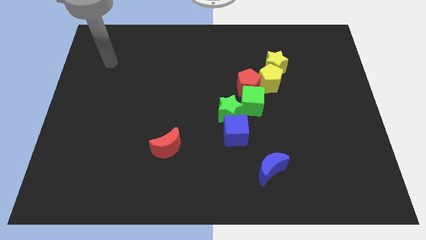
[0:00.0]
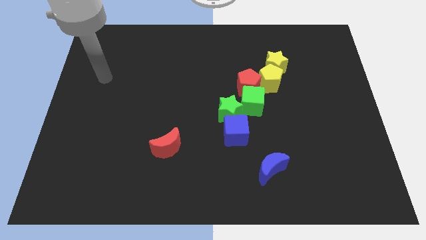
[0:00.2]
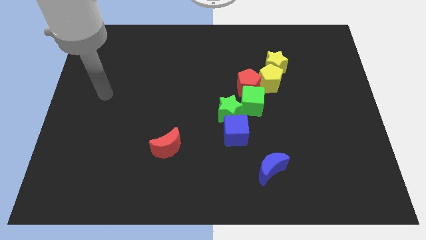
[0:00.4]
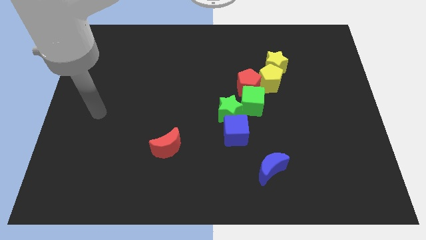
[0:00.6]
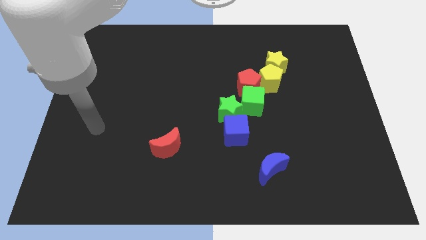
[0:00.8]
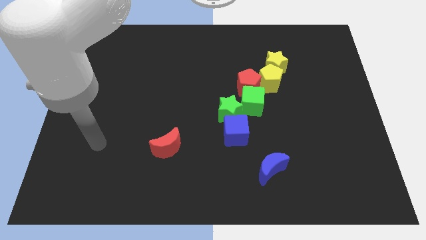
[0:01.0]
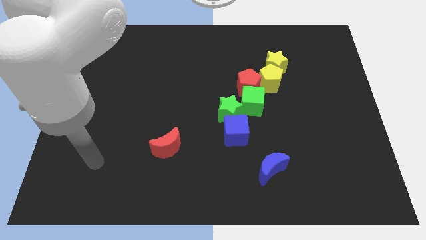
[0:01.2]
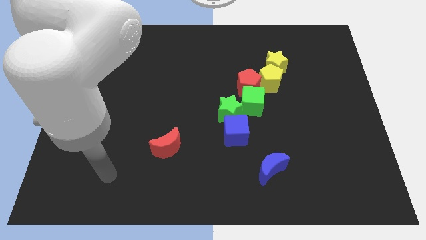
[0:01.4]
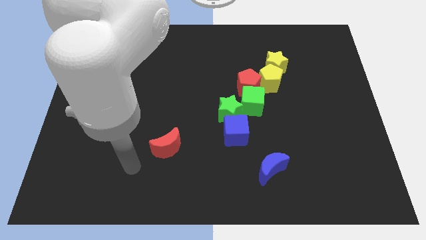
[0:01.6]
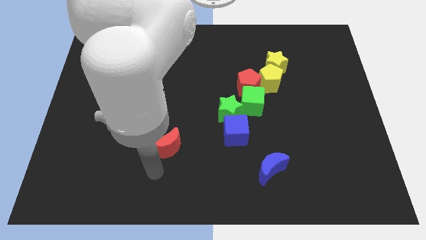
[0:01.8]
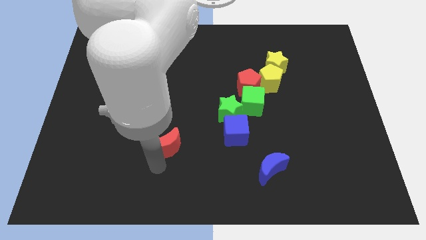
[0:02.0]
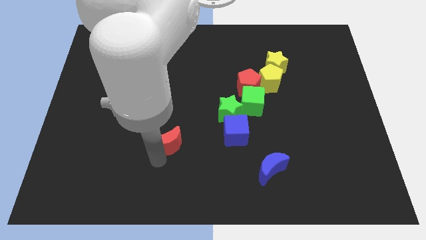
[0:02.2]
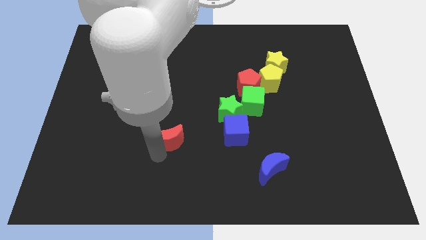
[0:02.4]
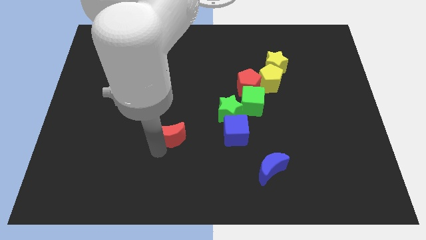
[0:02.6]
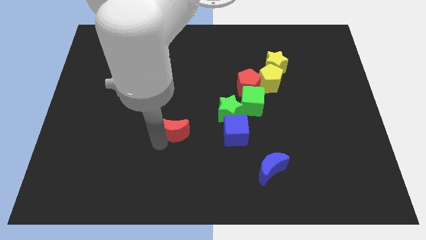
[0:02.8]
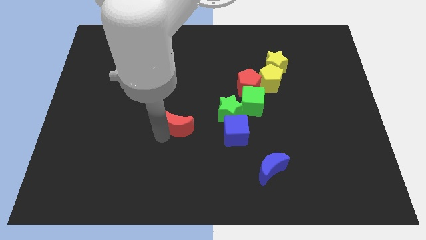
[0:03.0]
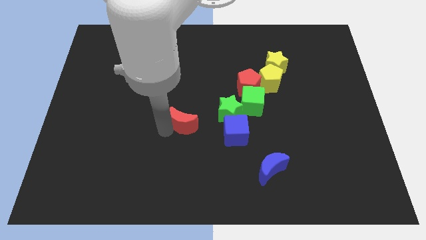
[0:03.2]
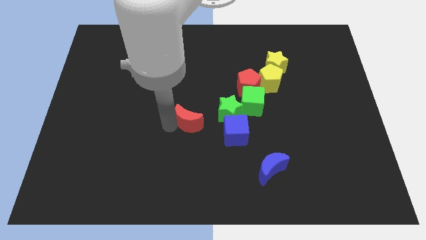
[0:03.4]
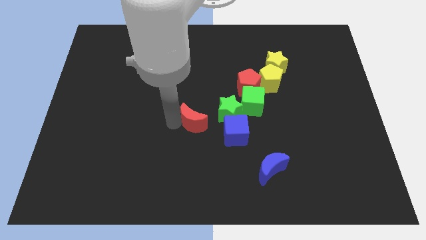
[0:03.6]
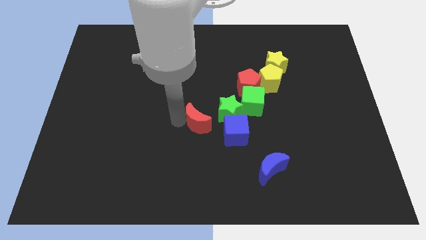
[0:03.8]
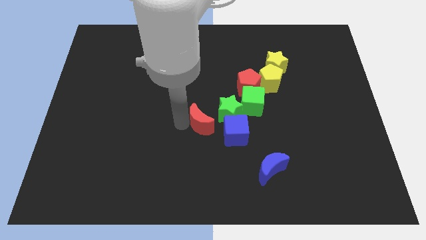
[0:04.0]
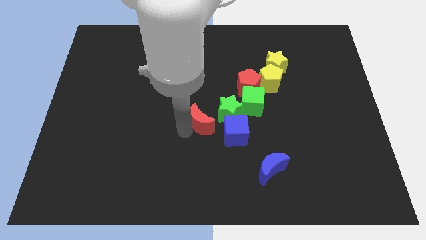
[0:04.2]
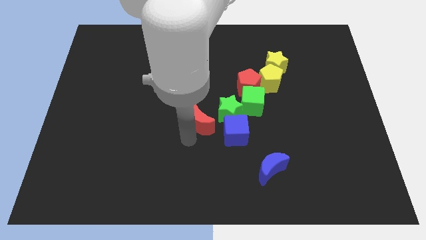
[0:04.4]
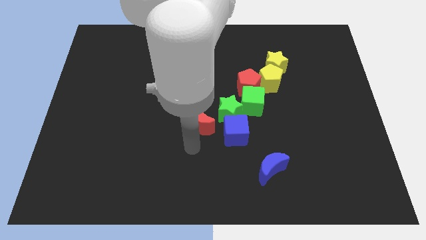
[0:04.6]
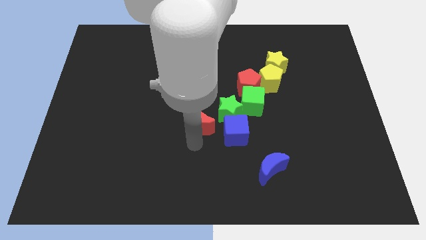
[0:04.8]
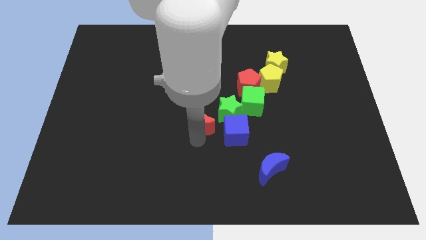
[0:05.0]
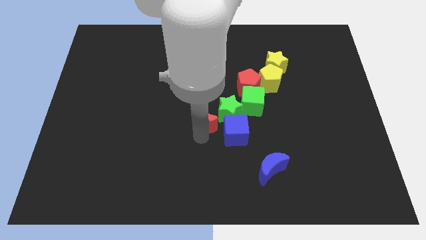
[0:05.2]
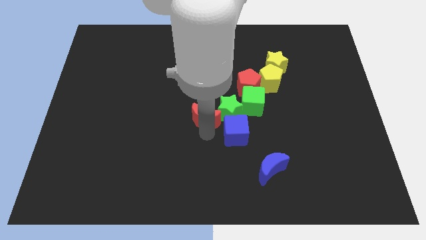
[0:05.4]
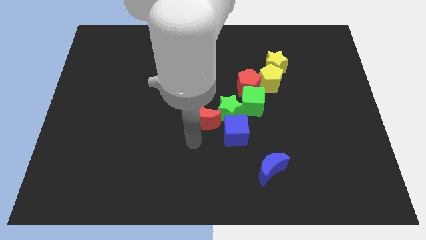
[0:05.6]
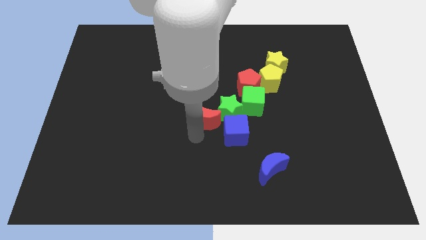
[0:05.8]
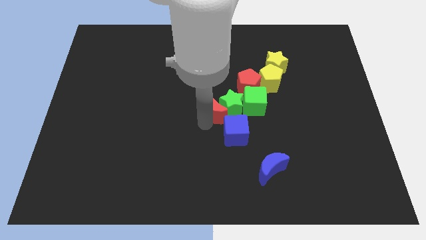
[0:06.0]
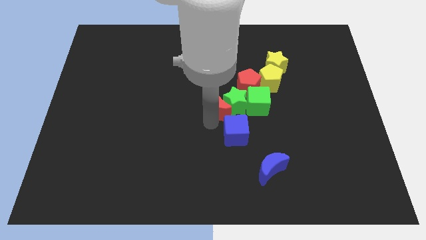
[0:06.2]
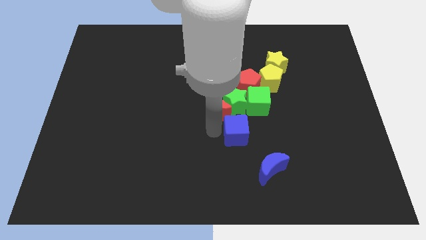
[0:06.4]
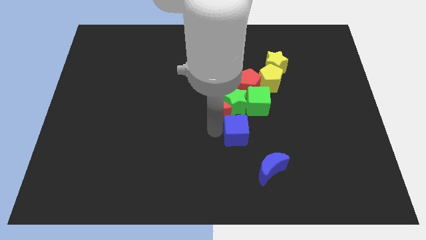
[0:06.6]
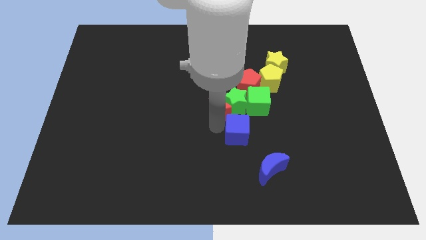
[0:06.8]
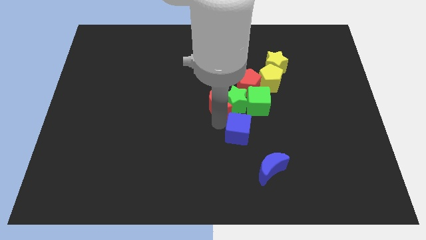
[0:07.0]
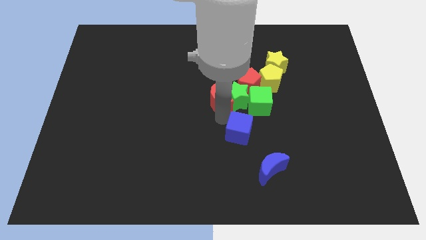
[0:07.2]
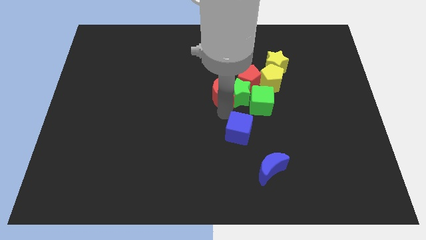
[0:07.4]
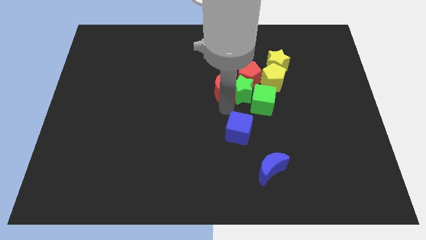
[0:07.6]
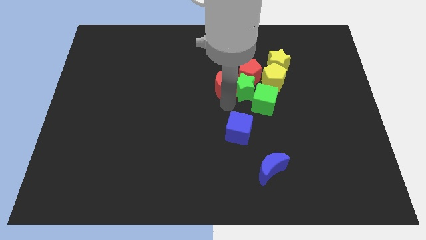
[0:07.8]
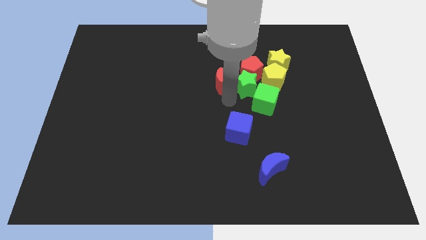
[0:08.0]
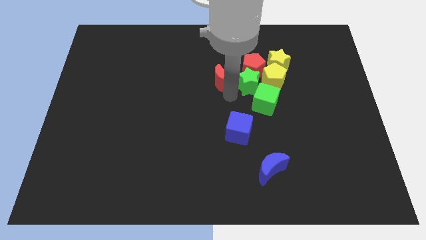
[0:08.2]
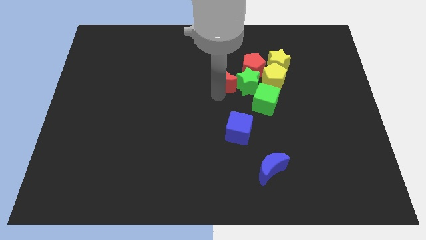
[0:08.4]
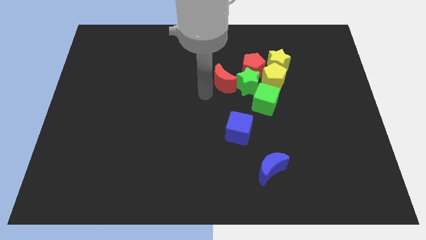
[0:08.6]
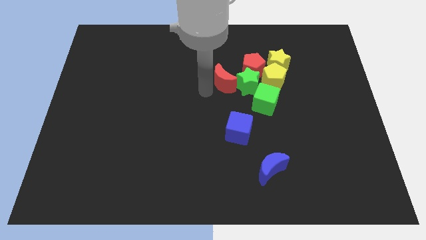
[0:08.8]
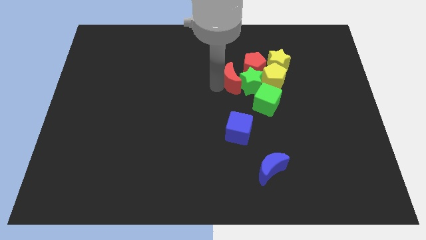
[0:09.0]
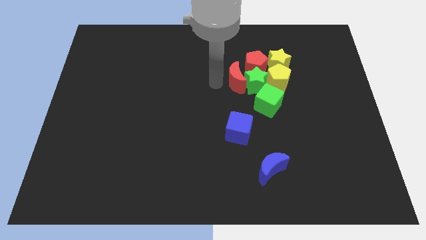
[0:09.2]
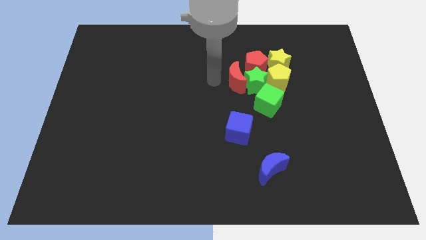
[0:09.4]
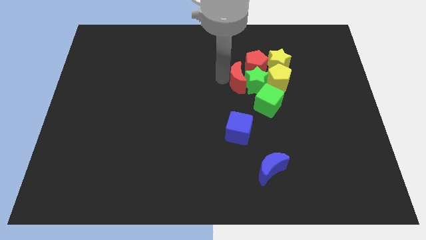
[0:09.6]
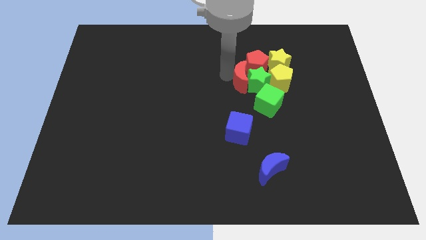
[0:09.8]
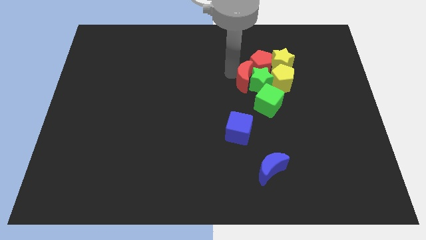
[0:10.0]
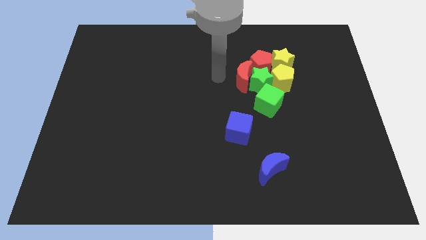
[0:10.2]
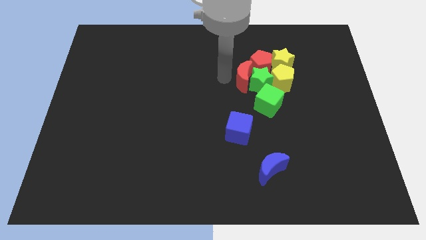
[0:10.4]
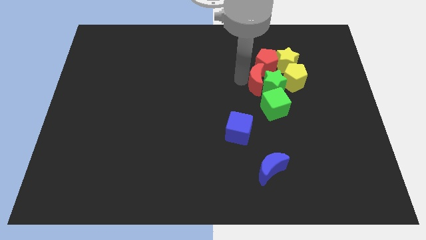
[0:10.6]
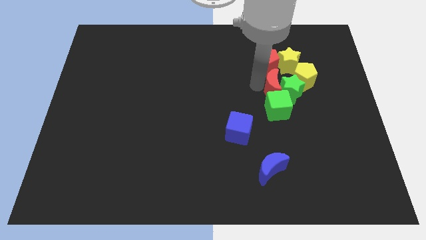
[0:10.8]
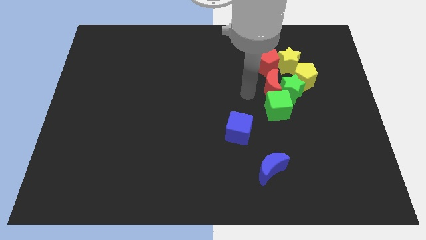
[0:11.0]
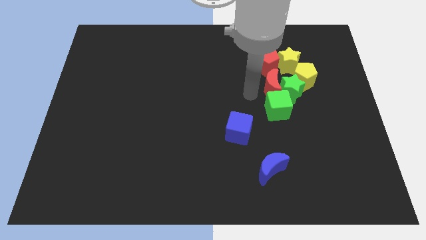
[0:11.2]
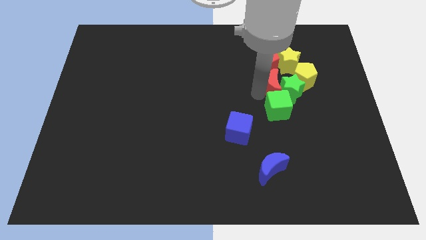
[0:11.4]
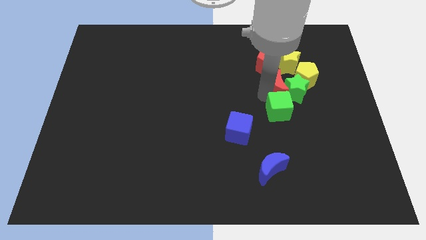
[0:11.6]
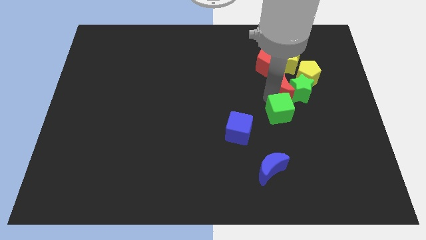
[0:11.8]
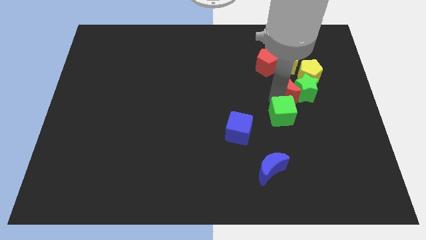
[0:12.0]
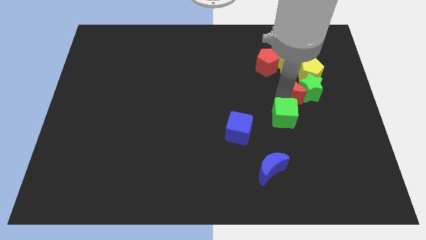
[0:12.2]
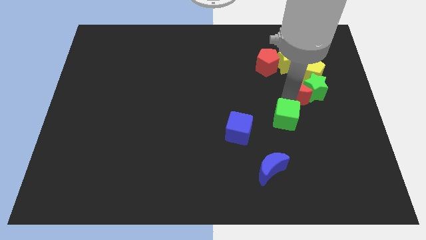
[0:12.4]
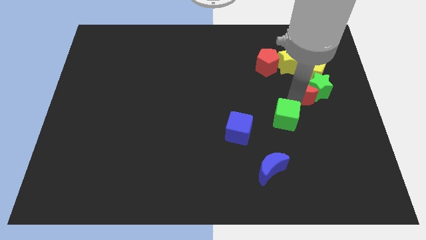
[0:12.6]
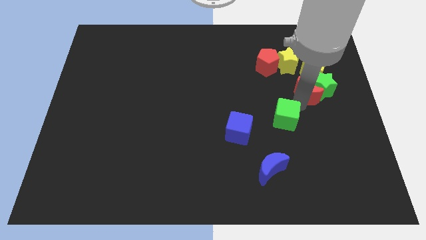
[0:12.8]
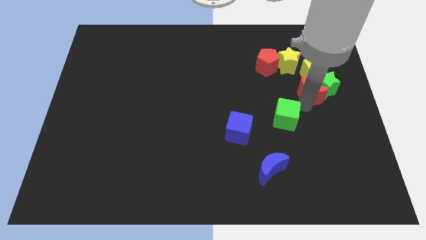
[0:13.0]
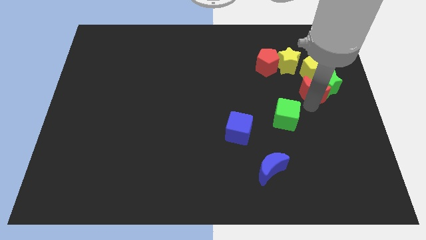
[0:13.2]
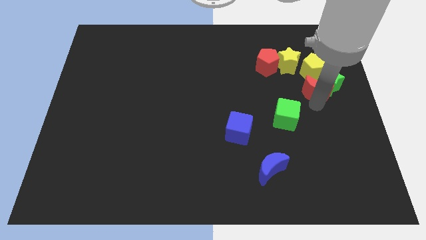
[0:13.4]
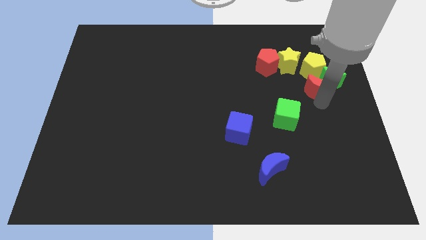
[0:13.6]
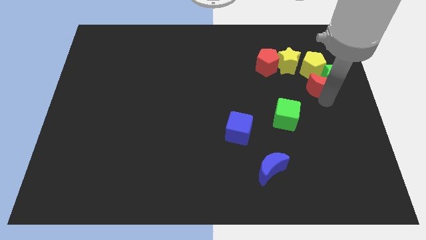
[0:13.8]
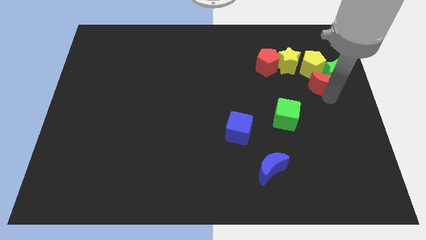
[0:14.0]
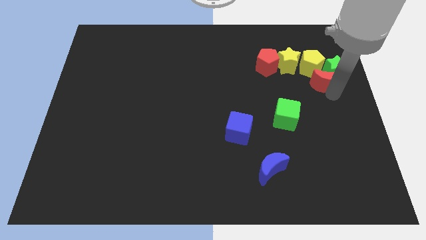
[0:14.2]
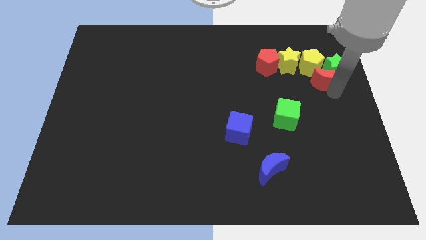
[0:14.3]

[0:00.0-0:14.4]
put the red moon close to the yellow pentagon
